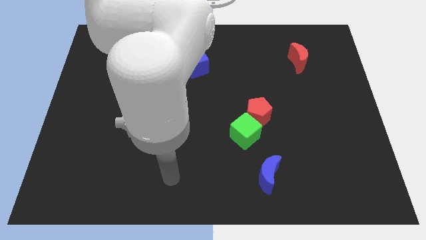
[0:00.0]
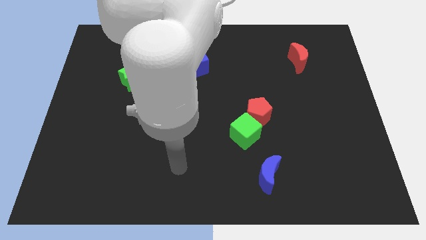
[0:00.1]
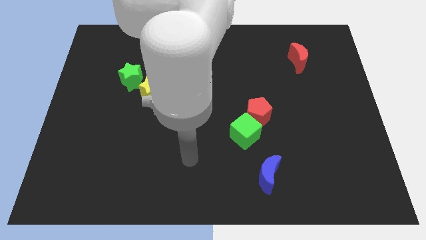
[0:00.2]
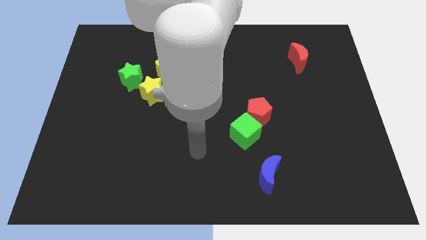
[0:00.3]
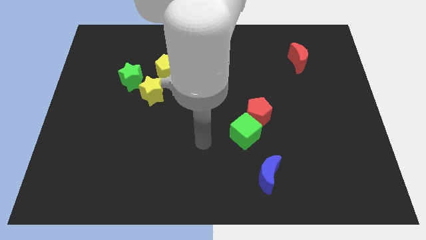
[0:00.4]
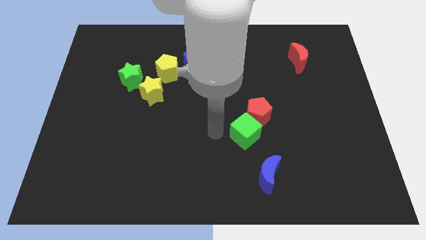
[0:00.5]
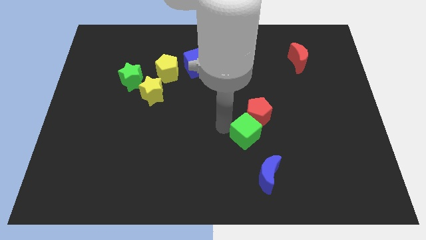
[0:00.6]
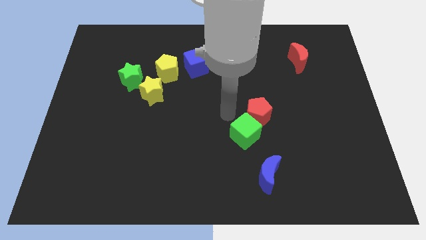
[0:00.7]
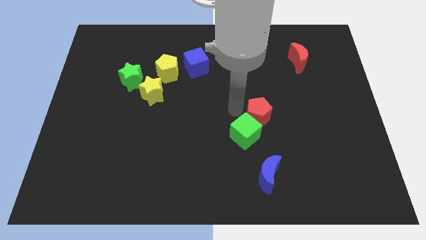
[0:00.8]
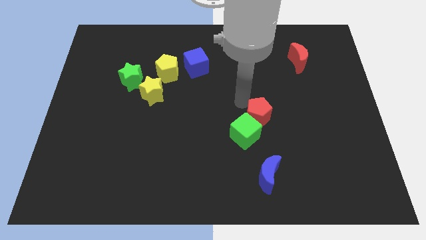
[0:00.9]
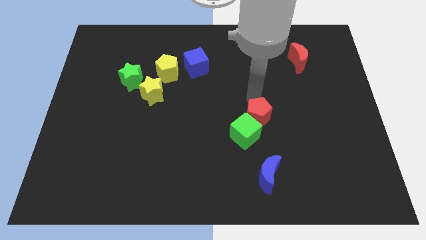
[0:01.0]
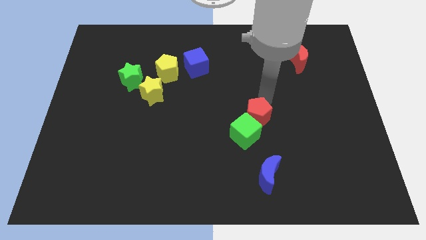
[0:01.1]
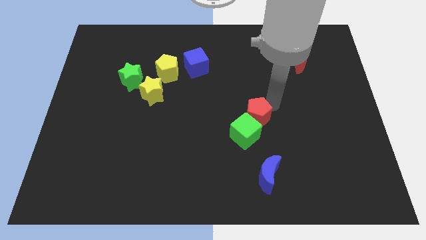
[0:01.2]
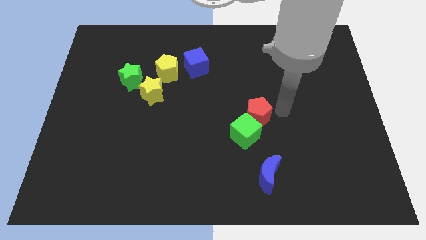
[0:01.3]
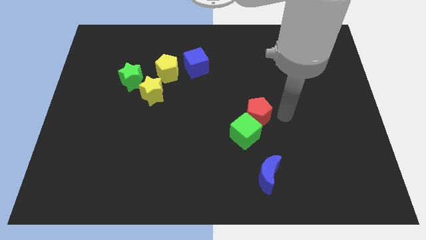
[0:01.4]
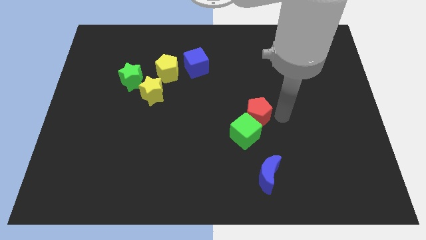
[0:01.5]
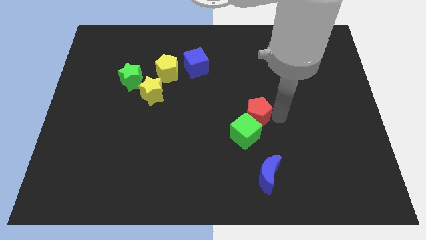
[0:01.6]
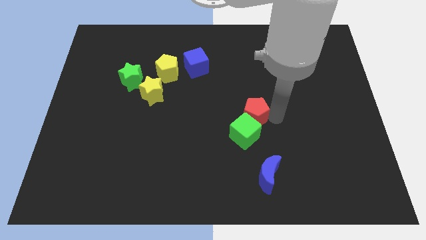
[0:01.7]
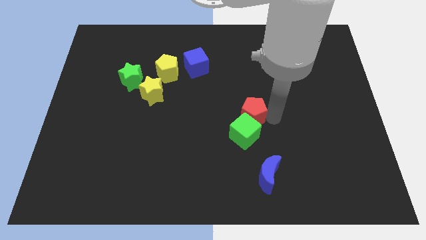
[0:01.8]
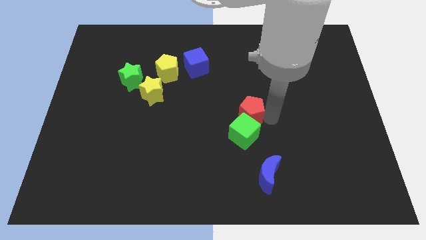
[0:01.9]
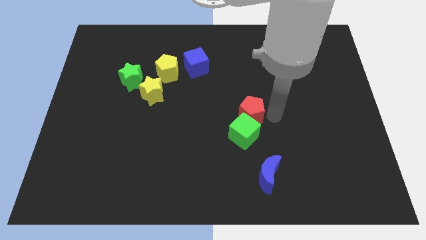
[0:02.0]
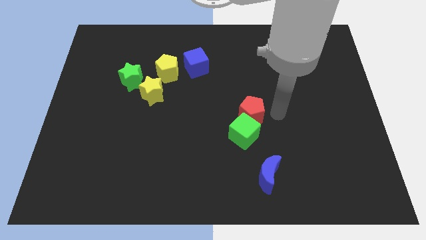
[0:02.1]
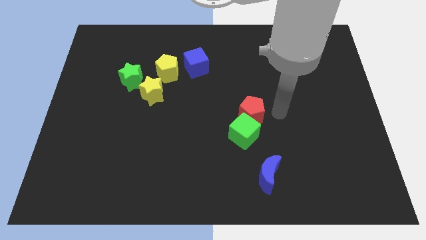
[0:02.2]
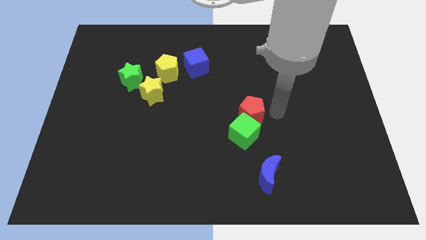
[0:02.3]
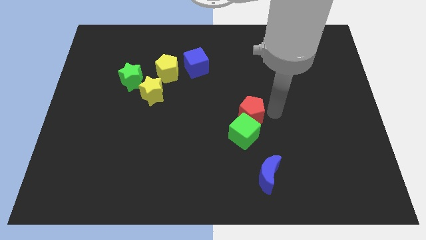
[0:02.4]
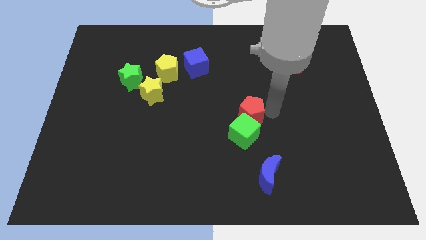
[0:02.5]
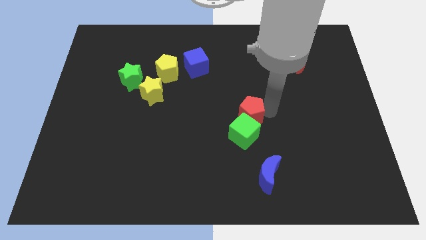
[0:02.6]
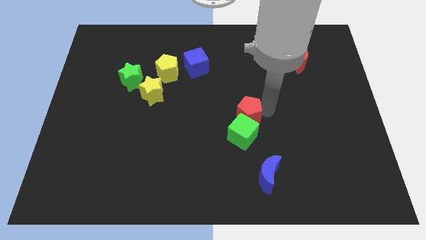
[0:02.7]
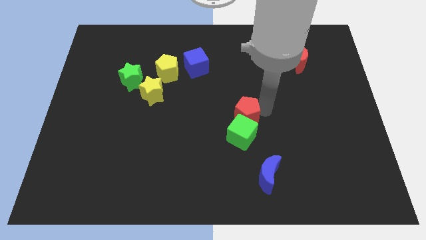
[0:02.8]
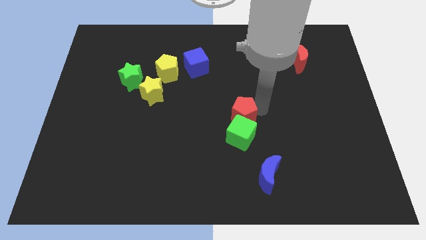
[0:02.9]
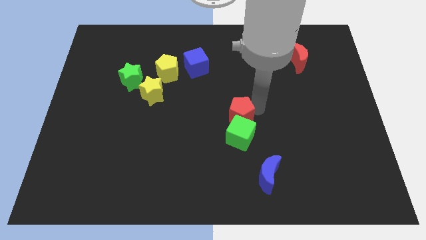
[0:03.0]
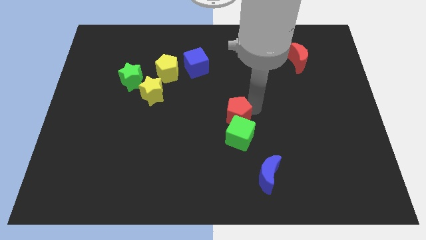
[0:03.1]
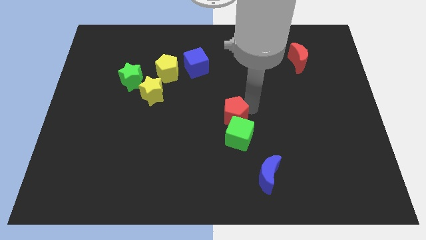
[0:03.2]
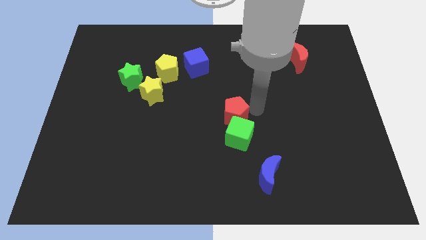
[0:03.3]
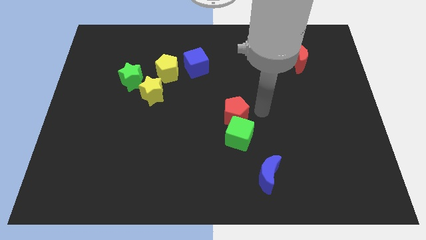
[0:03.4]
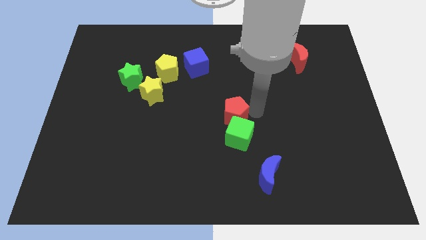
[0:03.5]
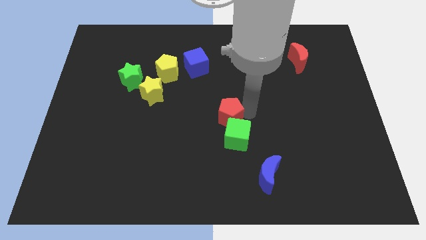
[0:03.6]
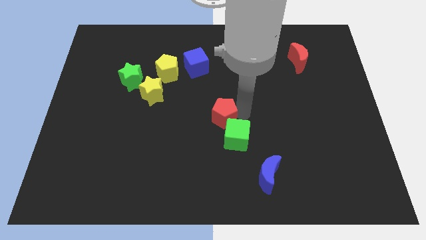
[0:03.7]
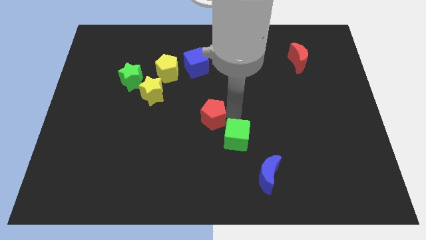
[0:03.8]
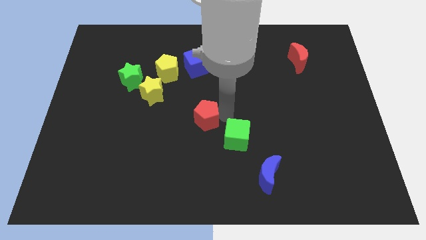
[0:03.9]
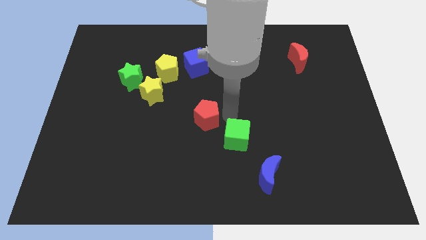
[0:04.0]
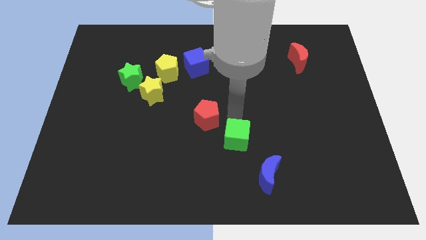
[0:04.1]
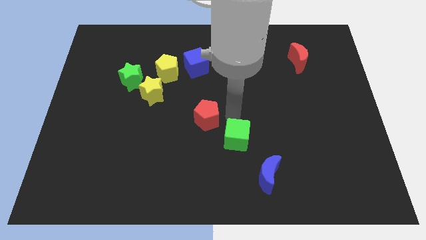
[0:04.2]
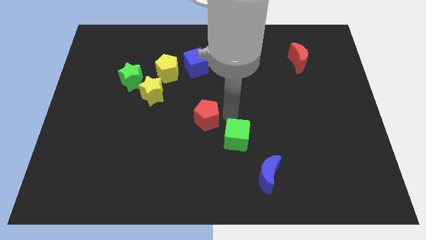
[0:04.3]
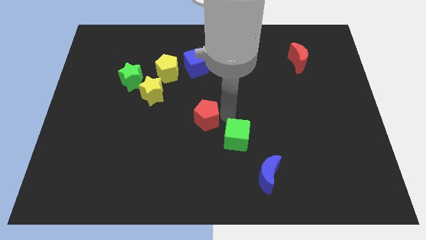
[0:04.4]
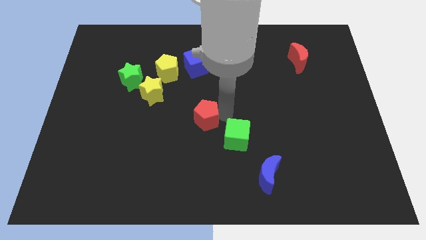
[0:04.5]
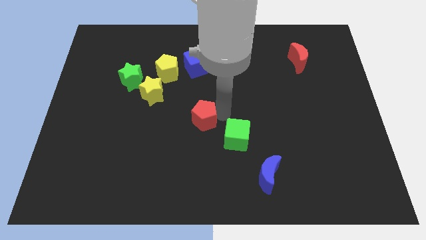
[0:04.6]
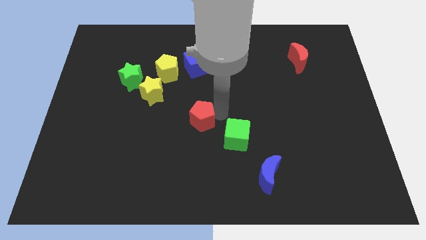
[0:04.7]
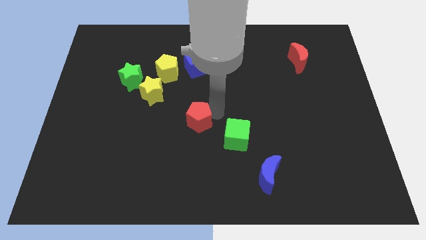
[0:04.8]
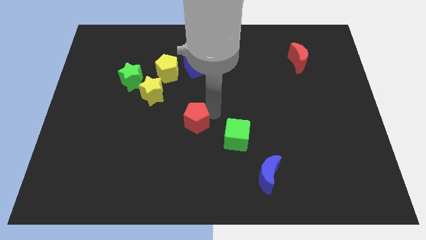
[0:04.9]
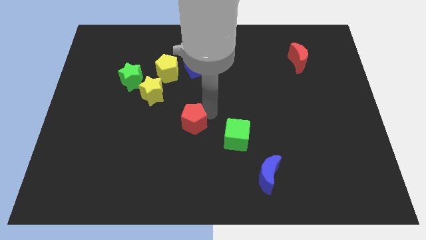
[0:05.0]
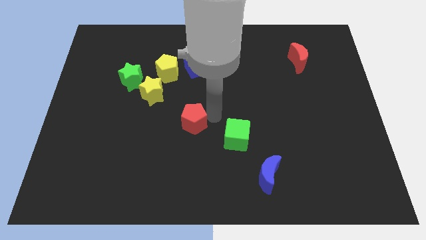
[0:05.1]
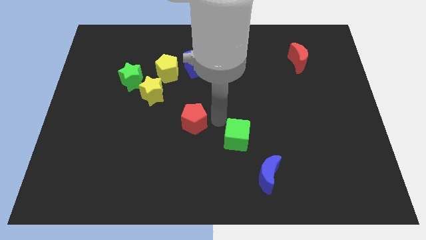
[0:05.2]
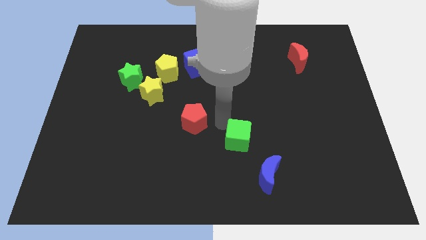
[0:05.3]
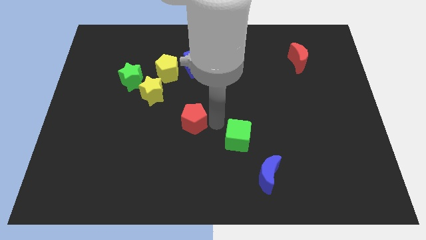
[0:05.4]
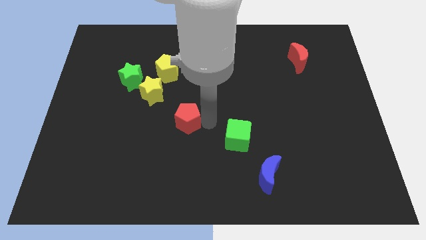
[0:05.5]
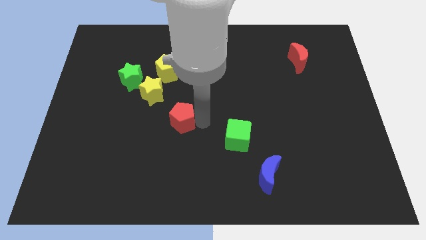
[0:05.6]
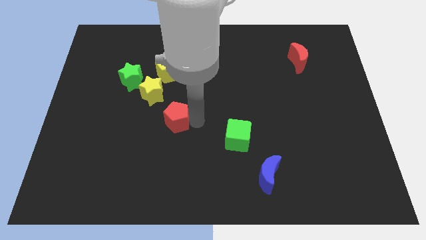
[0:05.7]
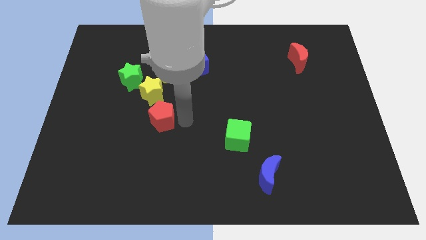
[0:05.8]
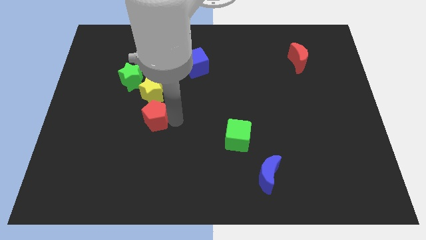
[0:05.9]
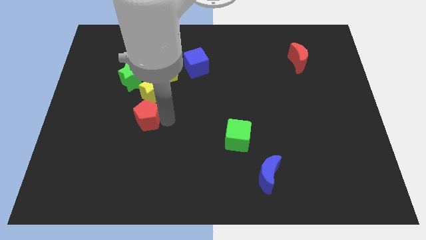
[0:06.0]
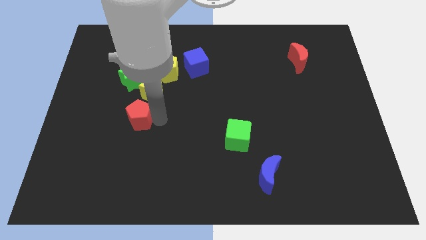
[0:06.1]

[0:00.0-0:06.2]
put the red pentagon to the bottom side of the green star

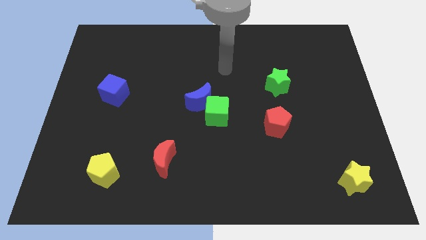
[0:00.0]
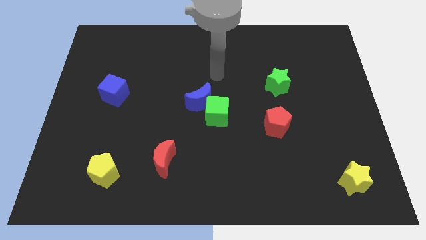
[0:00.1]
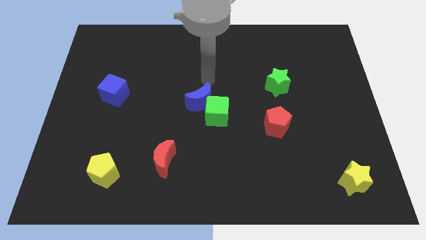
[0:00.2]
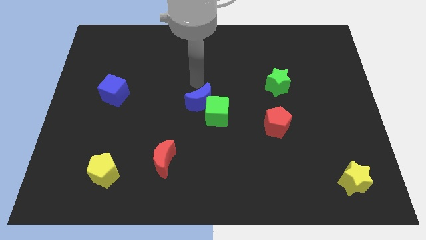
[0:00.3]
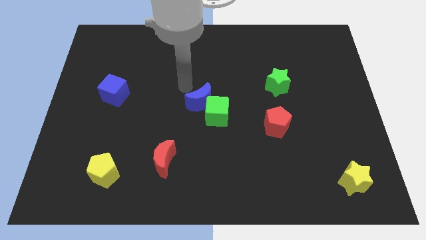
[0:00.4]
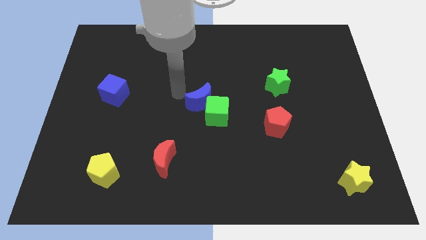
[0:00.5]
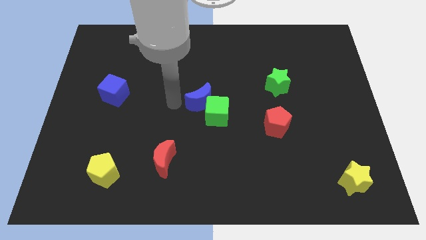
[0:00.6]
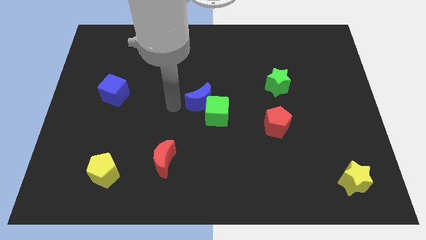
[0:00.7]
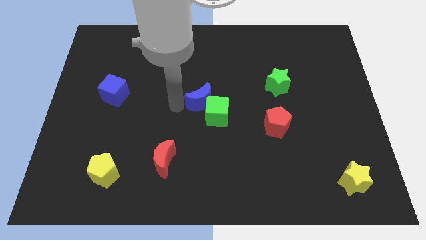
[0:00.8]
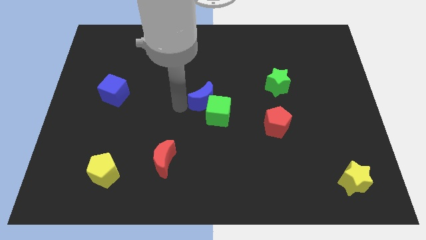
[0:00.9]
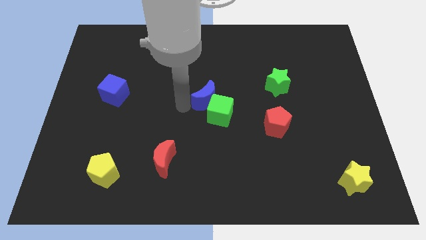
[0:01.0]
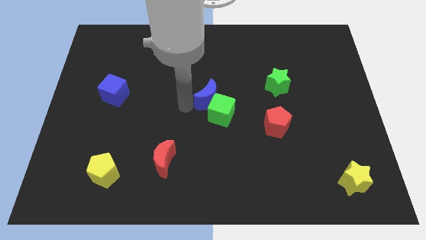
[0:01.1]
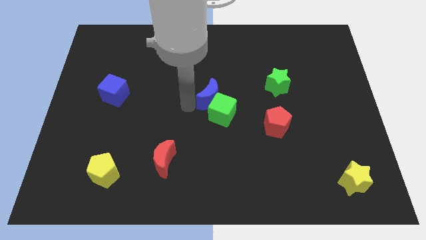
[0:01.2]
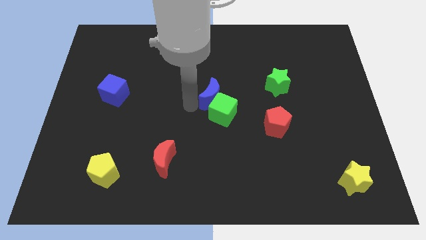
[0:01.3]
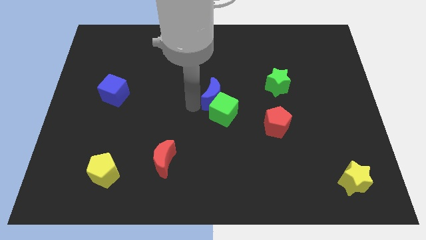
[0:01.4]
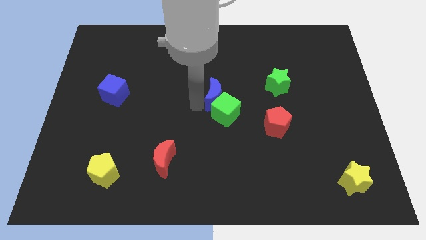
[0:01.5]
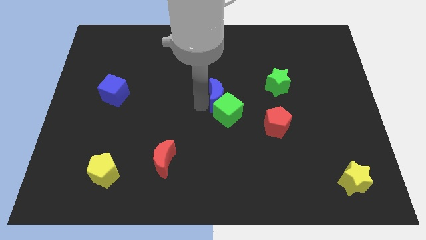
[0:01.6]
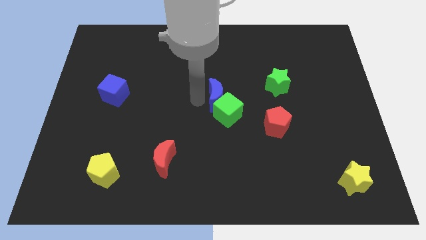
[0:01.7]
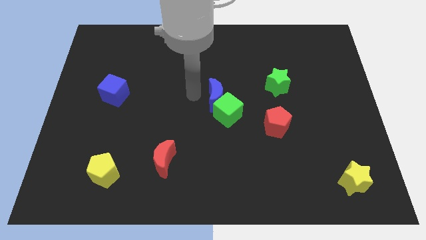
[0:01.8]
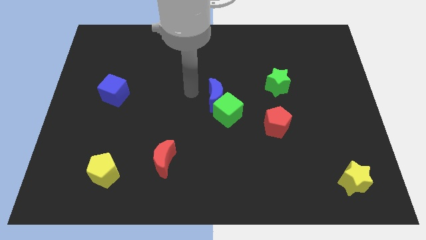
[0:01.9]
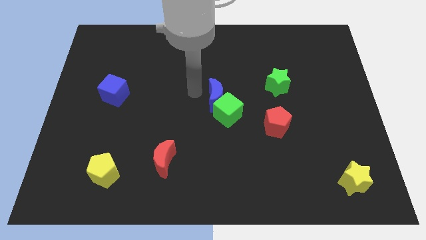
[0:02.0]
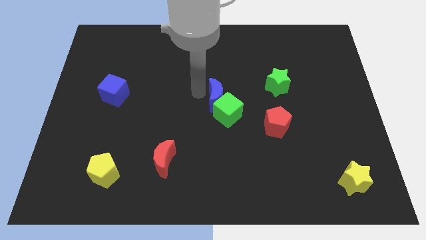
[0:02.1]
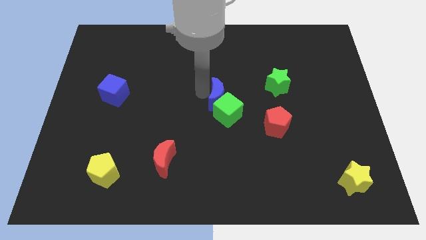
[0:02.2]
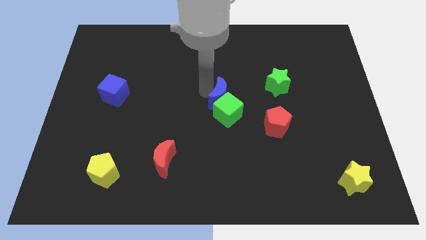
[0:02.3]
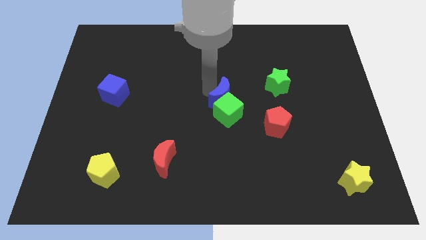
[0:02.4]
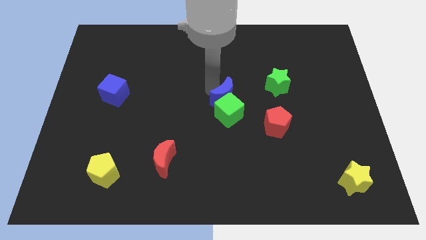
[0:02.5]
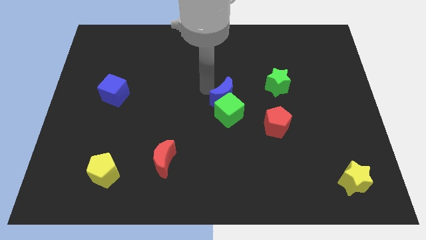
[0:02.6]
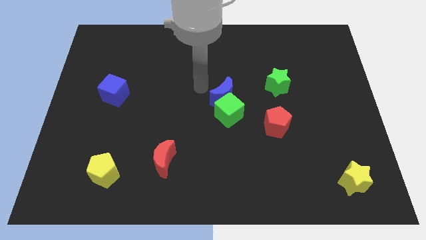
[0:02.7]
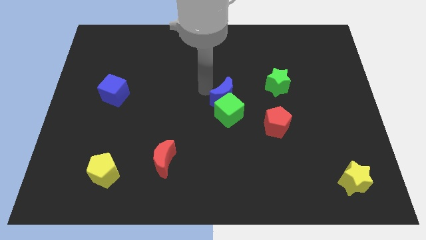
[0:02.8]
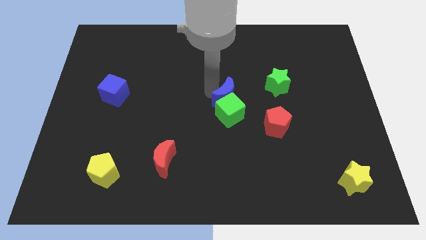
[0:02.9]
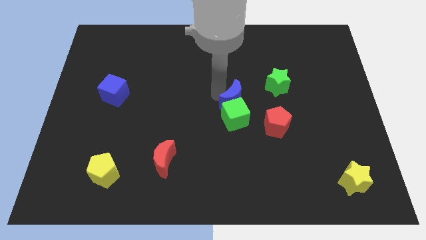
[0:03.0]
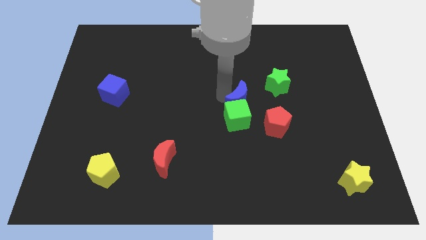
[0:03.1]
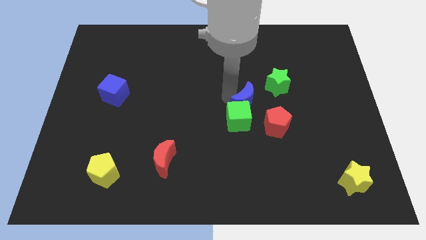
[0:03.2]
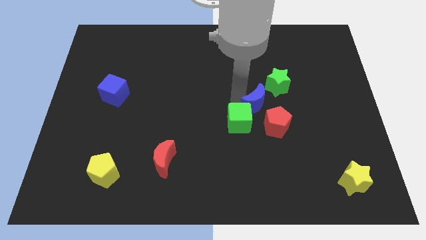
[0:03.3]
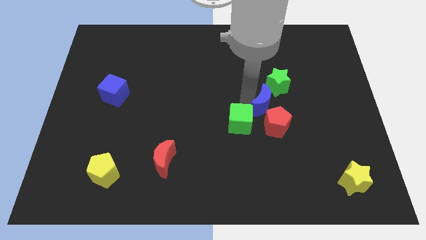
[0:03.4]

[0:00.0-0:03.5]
push the blue moon just right of the green cube
